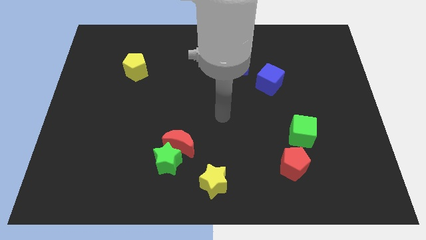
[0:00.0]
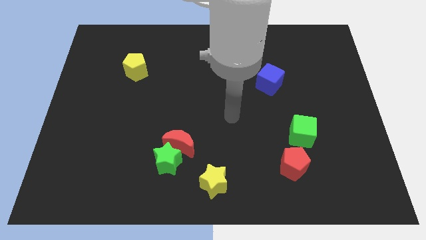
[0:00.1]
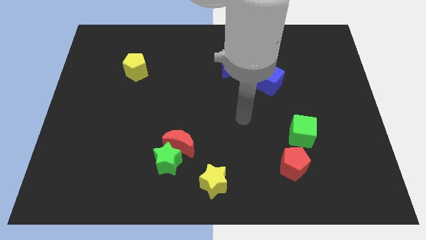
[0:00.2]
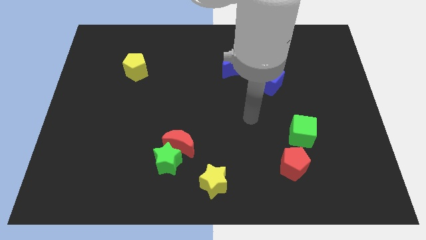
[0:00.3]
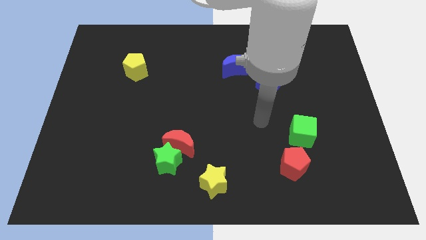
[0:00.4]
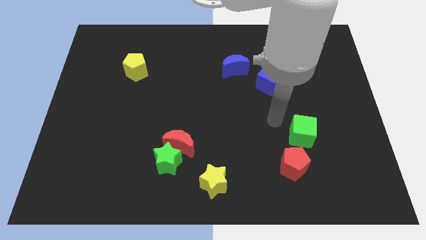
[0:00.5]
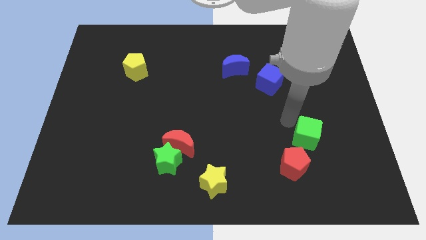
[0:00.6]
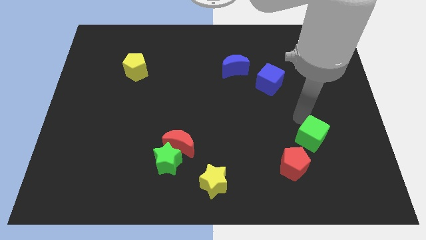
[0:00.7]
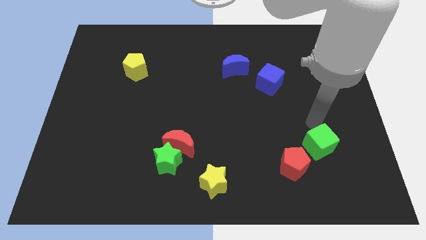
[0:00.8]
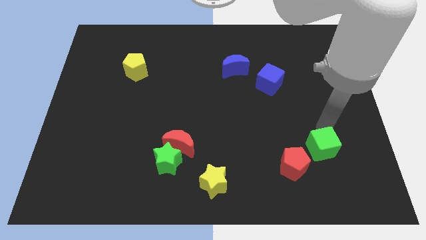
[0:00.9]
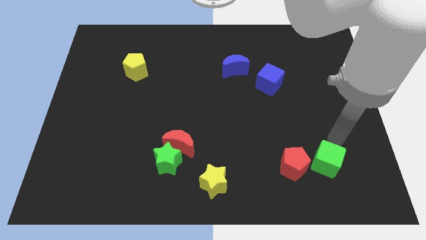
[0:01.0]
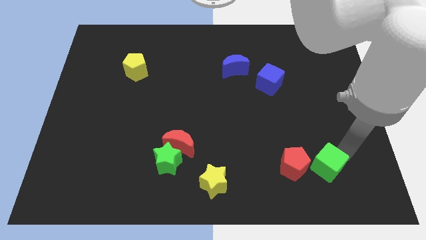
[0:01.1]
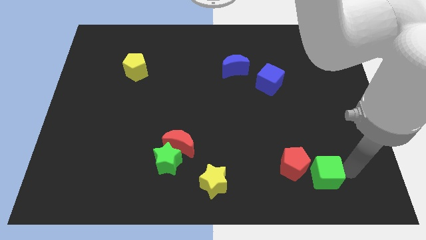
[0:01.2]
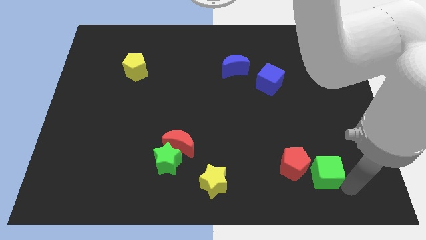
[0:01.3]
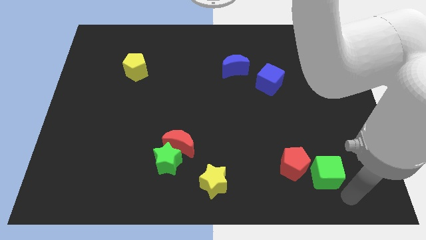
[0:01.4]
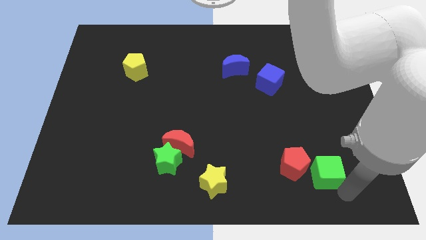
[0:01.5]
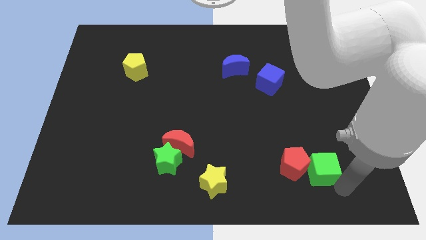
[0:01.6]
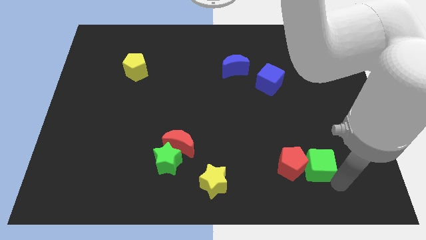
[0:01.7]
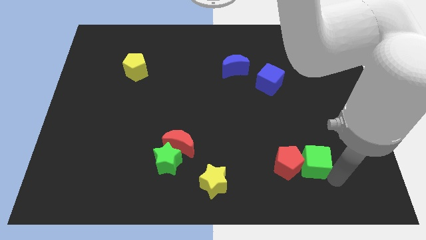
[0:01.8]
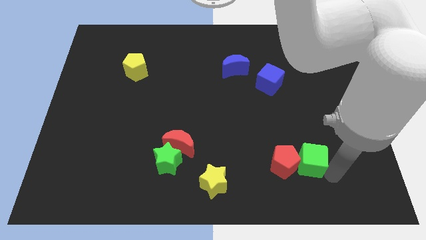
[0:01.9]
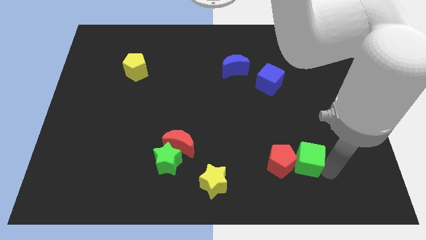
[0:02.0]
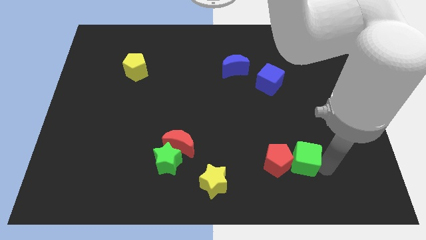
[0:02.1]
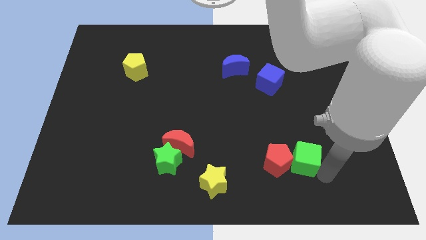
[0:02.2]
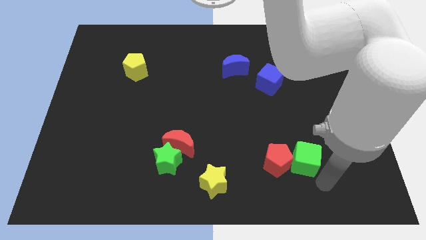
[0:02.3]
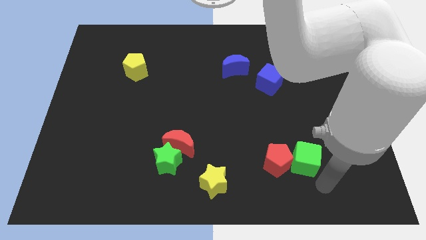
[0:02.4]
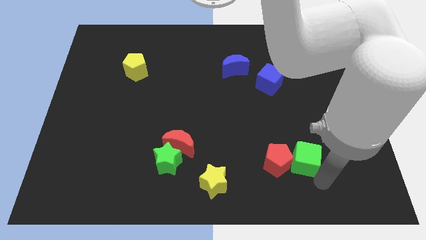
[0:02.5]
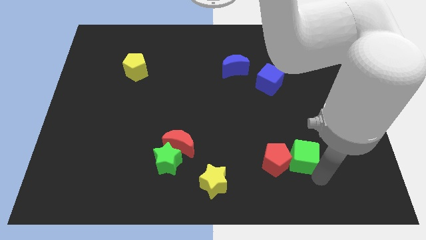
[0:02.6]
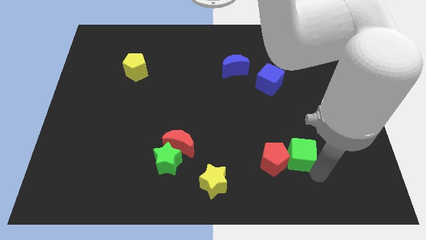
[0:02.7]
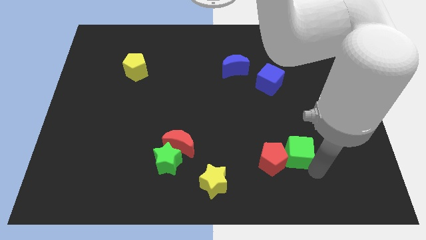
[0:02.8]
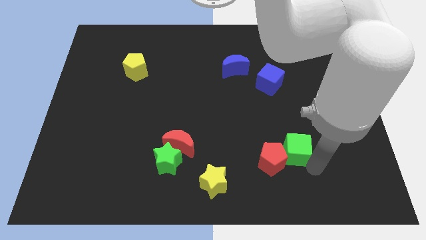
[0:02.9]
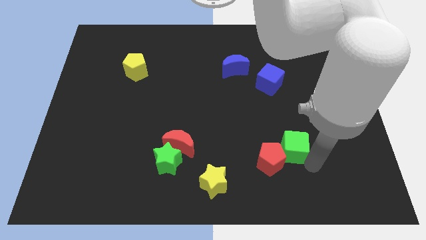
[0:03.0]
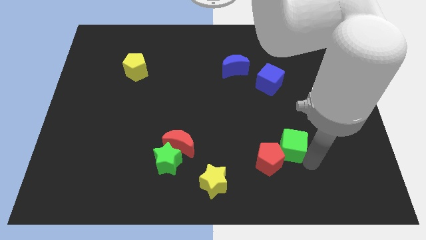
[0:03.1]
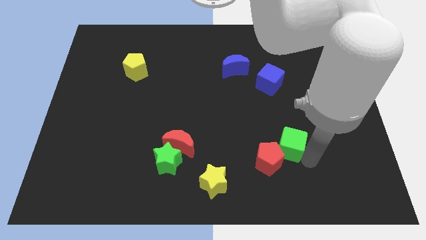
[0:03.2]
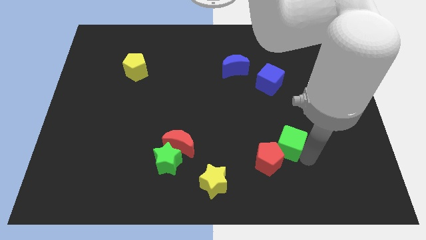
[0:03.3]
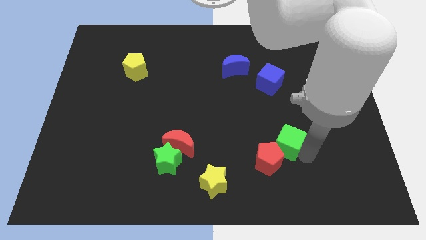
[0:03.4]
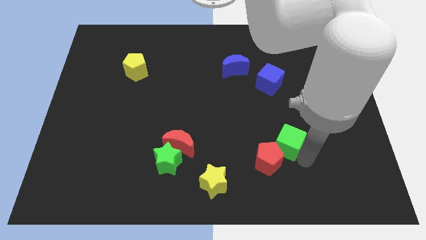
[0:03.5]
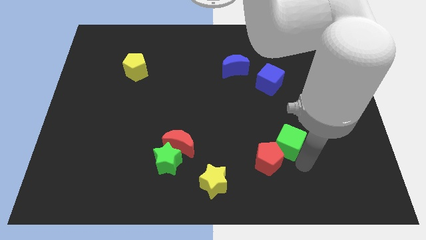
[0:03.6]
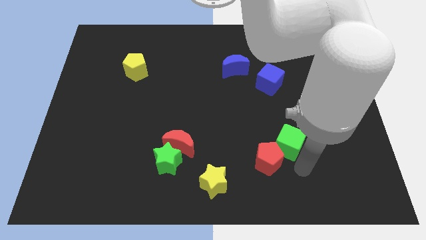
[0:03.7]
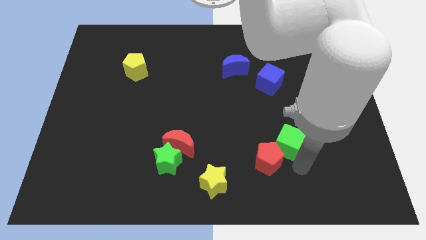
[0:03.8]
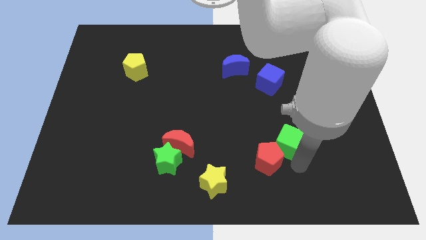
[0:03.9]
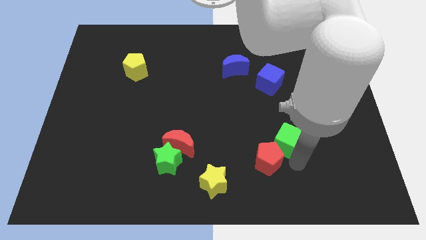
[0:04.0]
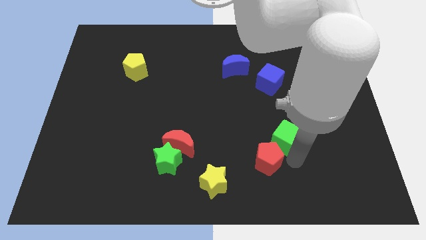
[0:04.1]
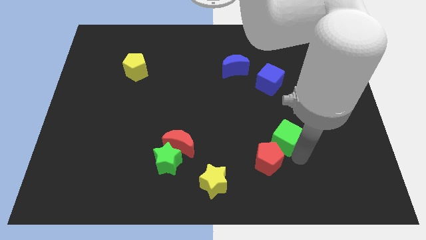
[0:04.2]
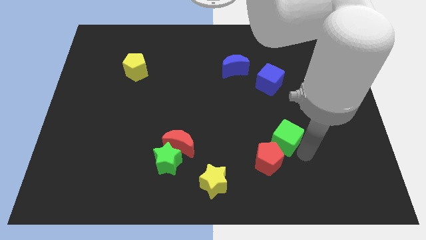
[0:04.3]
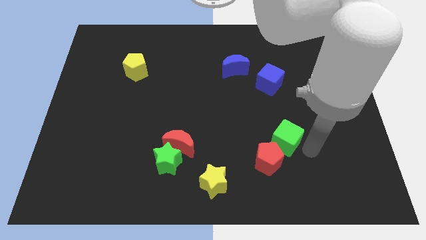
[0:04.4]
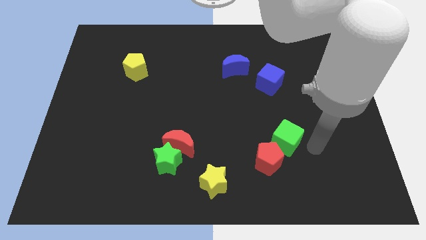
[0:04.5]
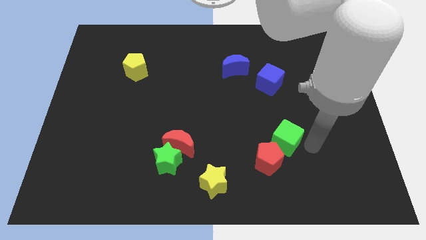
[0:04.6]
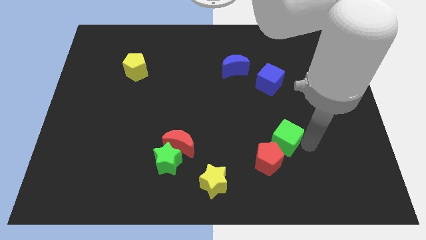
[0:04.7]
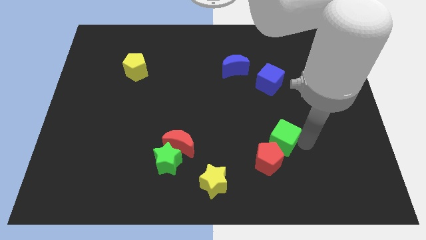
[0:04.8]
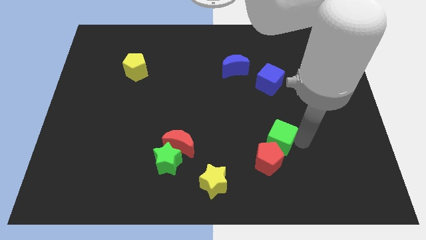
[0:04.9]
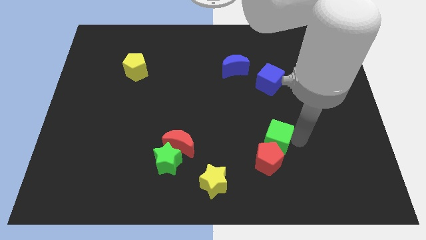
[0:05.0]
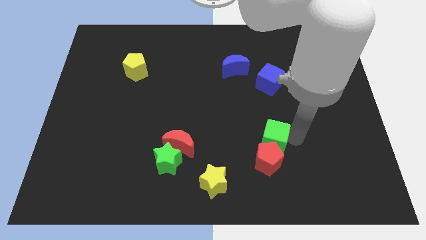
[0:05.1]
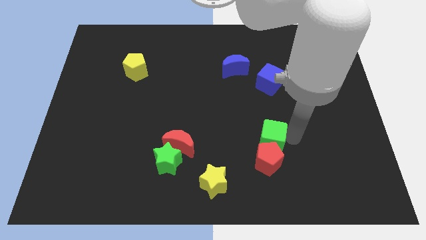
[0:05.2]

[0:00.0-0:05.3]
push the green cube left a little bit

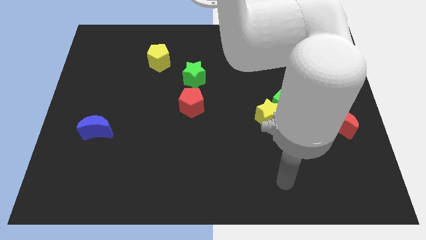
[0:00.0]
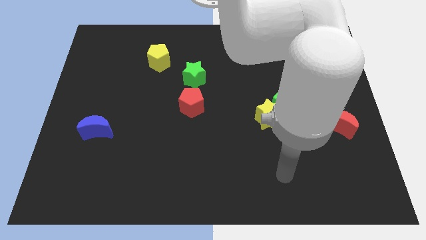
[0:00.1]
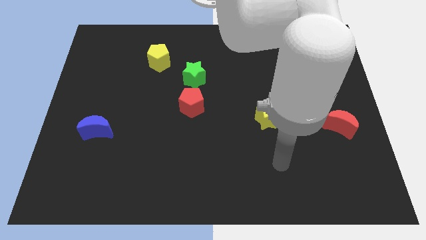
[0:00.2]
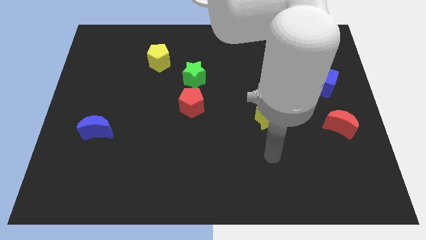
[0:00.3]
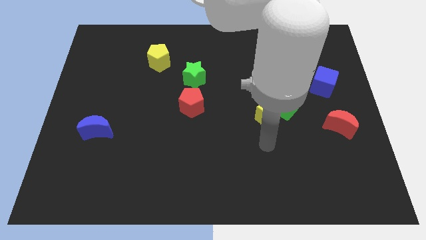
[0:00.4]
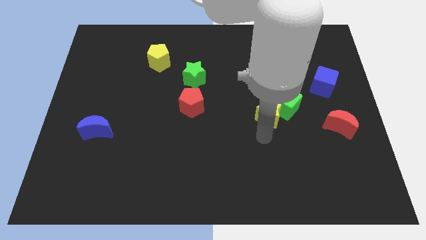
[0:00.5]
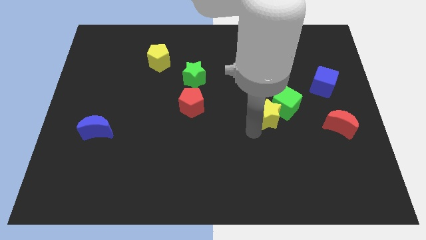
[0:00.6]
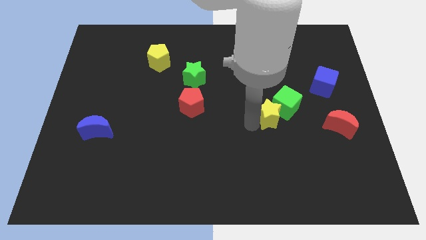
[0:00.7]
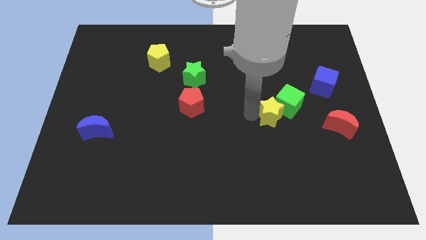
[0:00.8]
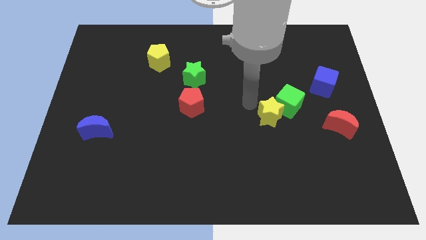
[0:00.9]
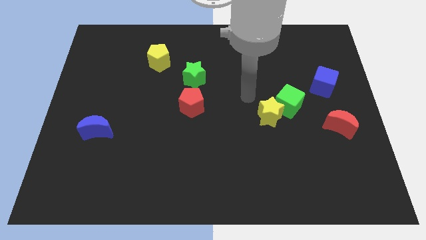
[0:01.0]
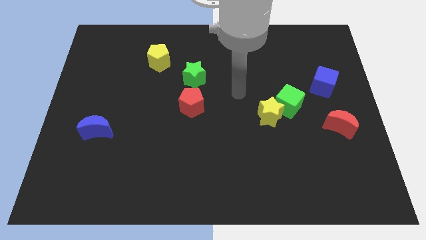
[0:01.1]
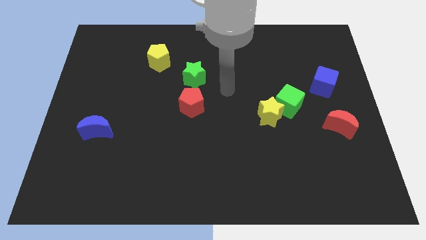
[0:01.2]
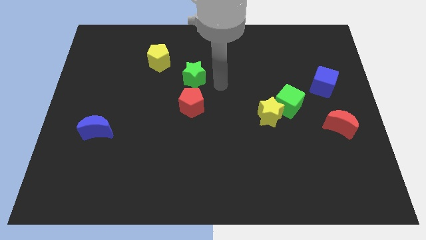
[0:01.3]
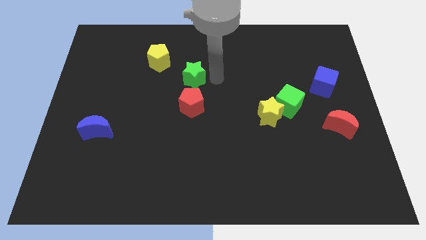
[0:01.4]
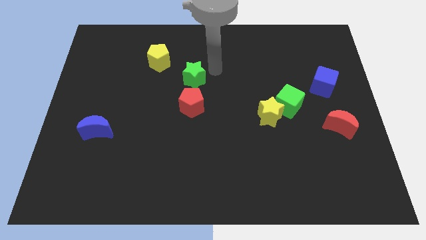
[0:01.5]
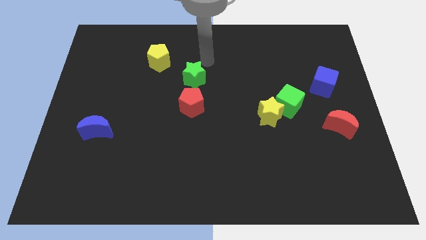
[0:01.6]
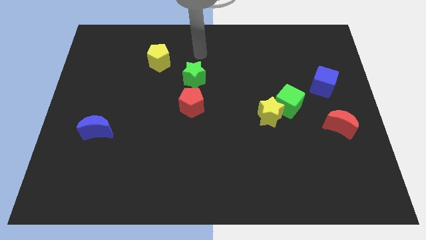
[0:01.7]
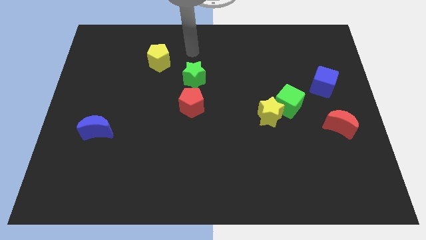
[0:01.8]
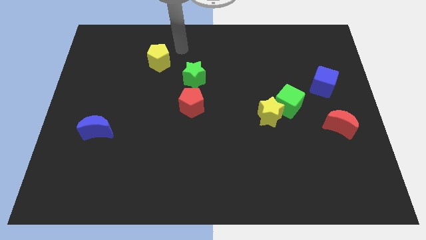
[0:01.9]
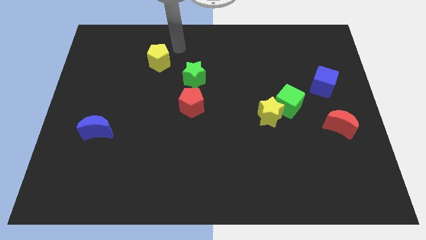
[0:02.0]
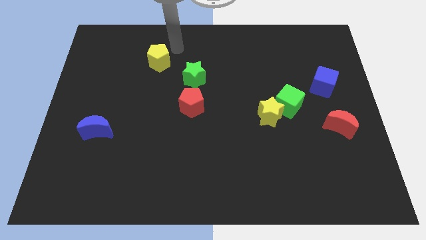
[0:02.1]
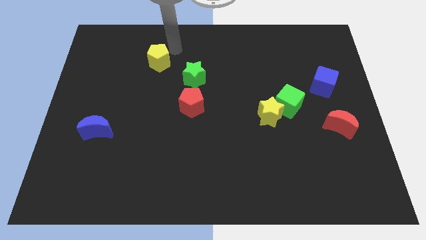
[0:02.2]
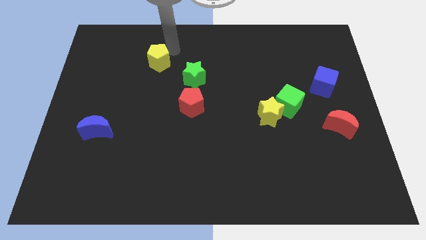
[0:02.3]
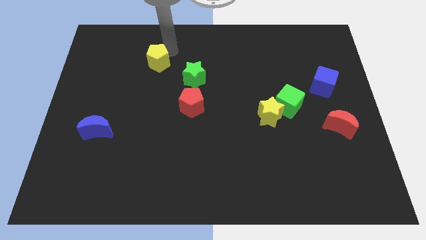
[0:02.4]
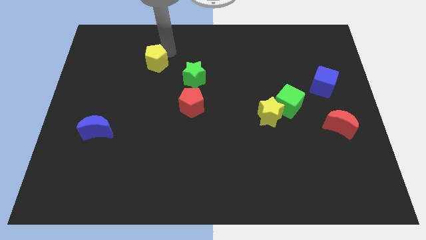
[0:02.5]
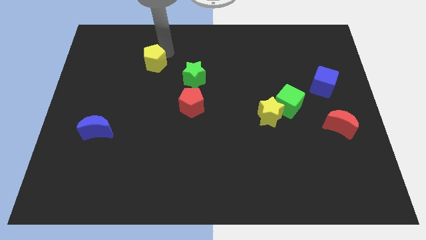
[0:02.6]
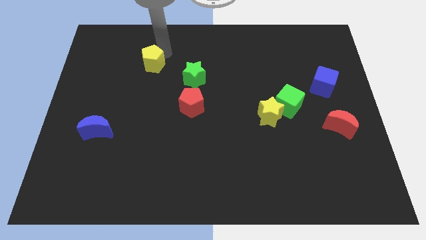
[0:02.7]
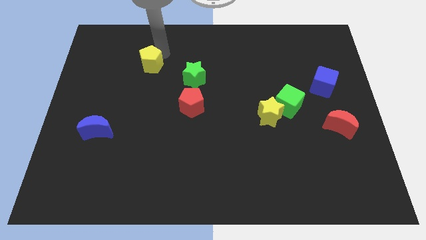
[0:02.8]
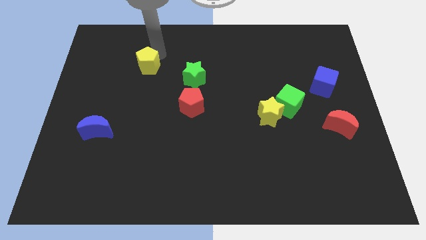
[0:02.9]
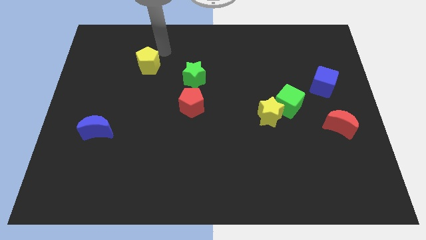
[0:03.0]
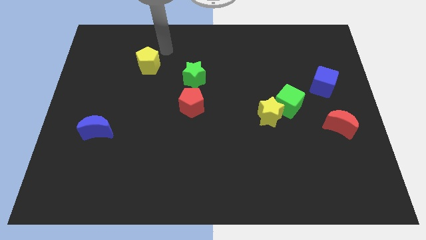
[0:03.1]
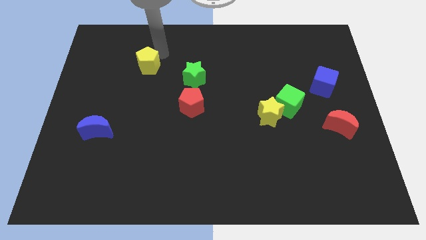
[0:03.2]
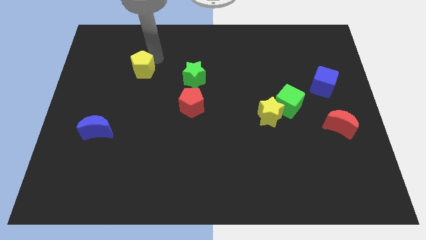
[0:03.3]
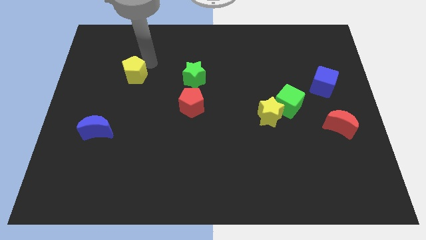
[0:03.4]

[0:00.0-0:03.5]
slightly move the yellow pentagon downwards and left
